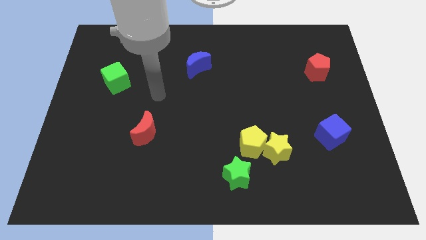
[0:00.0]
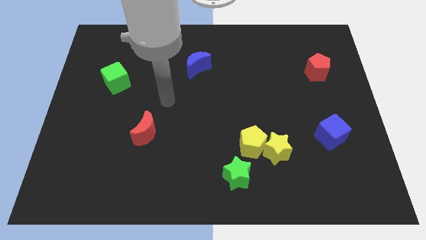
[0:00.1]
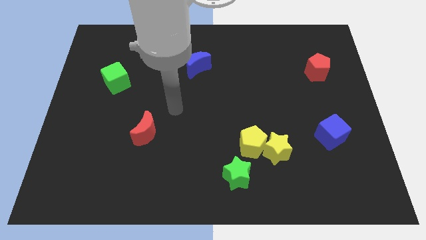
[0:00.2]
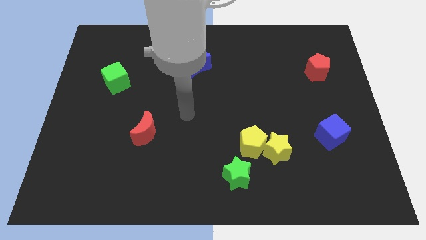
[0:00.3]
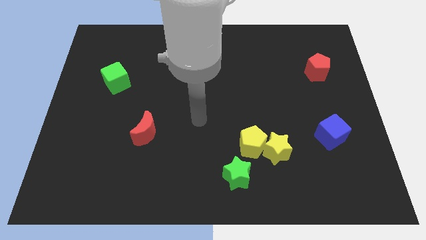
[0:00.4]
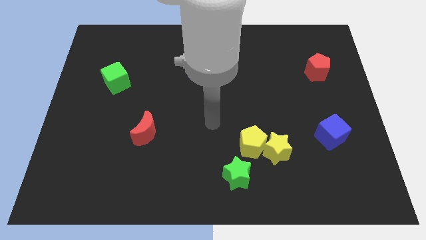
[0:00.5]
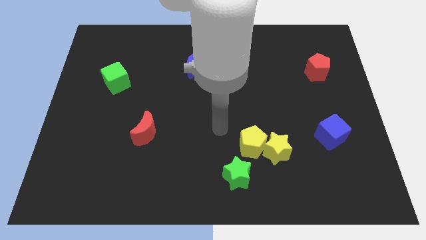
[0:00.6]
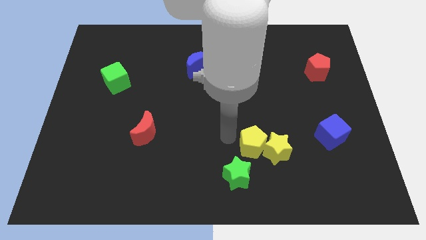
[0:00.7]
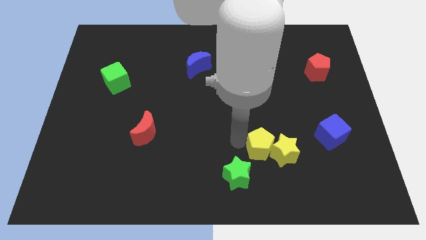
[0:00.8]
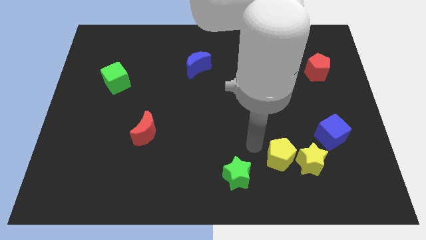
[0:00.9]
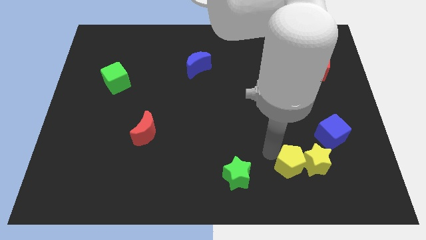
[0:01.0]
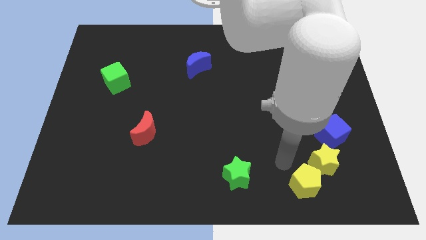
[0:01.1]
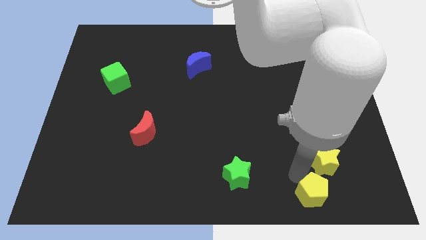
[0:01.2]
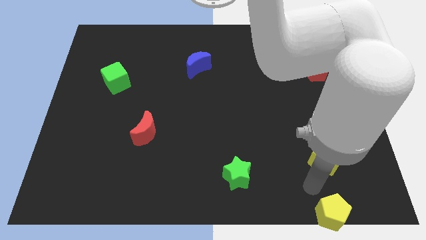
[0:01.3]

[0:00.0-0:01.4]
separate the yellow star from the yellow pentagon

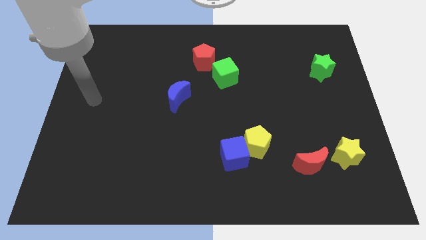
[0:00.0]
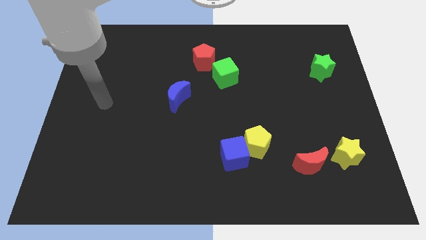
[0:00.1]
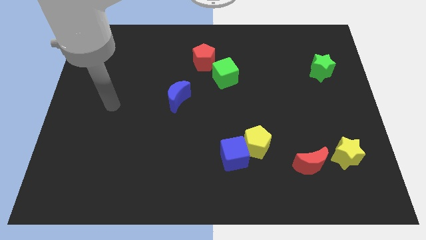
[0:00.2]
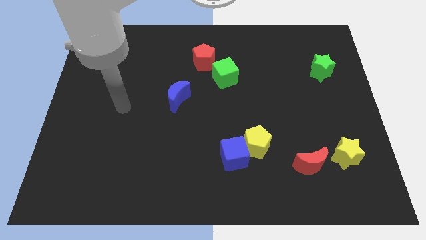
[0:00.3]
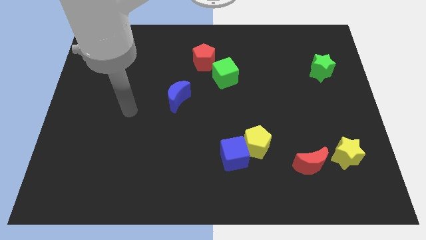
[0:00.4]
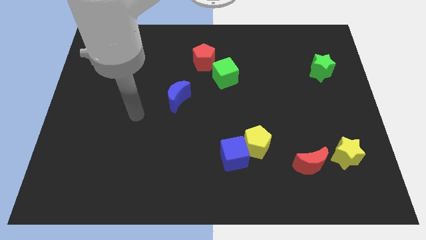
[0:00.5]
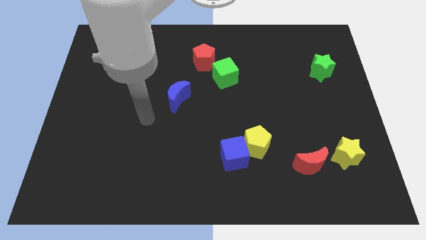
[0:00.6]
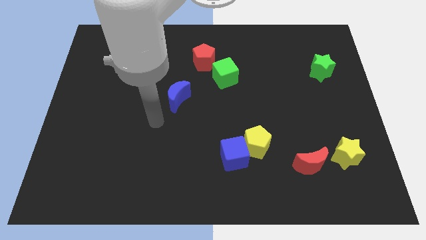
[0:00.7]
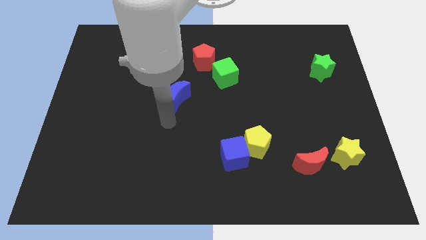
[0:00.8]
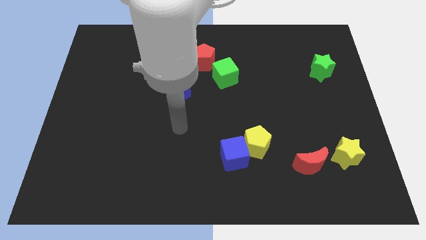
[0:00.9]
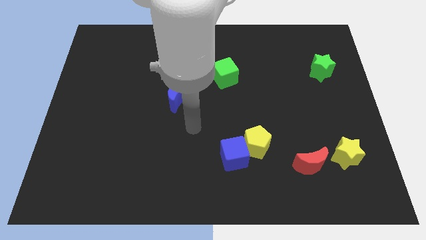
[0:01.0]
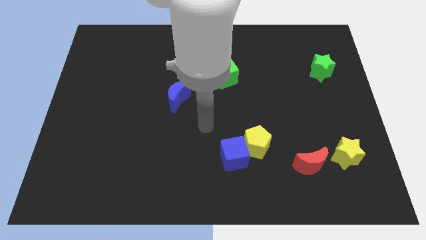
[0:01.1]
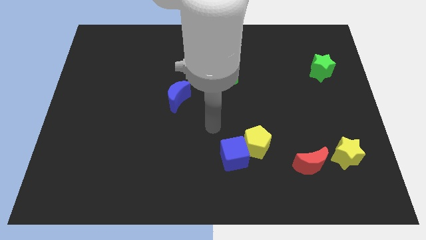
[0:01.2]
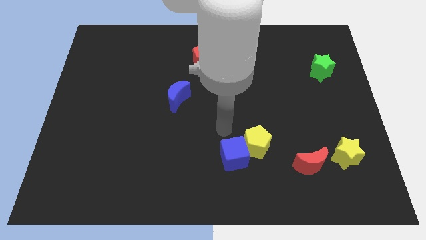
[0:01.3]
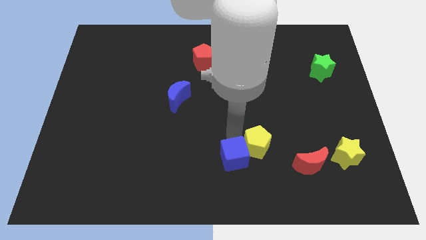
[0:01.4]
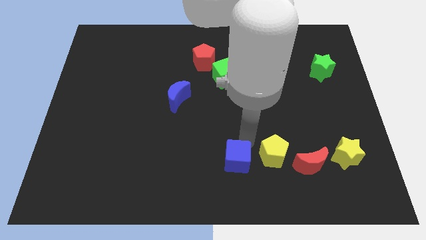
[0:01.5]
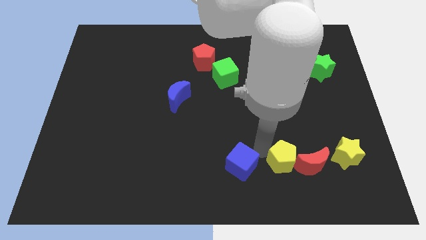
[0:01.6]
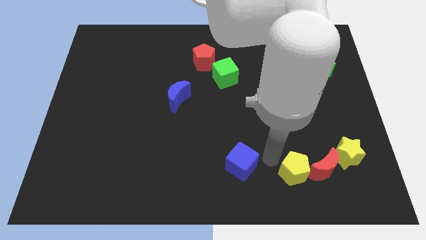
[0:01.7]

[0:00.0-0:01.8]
pull the blue cube apart from the yellow pentagon

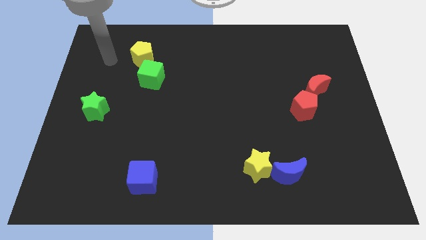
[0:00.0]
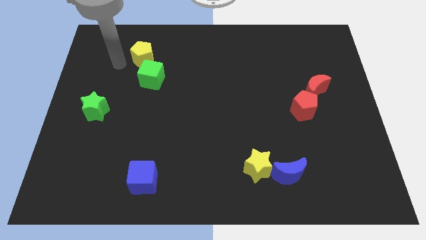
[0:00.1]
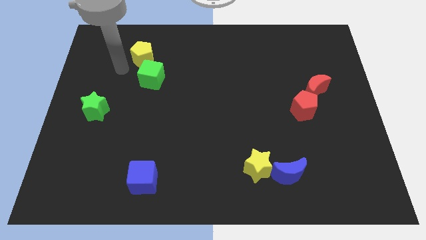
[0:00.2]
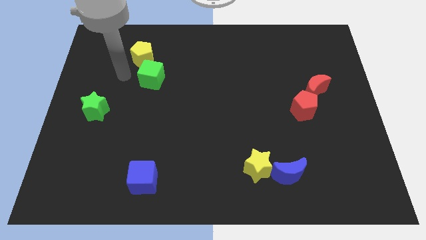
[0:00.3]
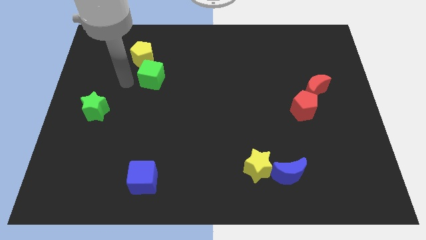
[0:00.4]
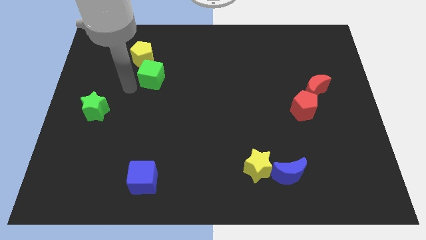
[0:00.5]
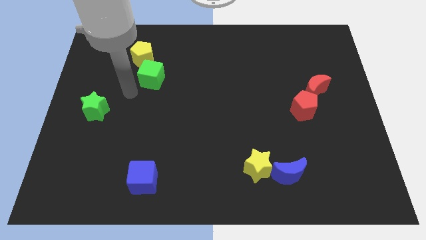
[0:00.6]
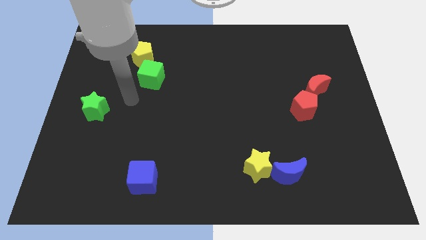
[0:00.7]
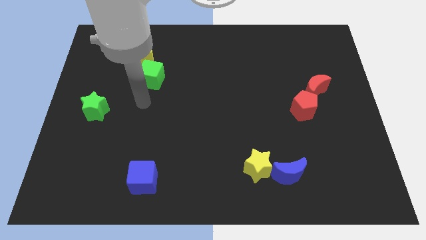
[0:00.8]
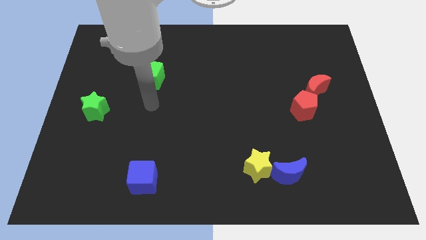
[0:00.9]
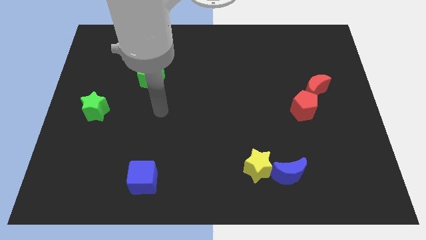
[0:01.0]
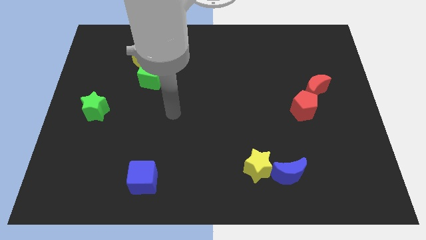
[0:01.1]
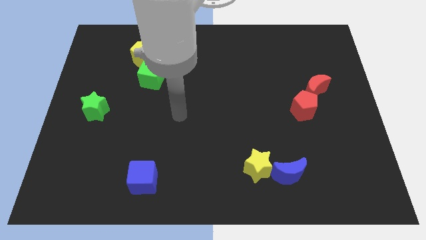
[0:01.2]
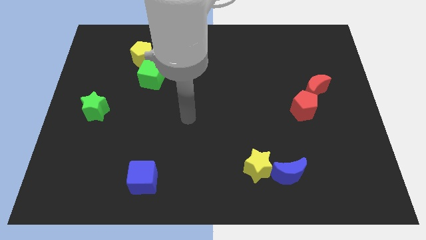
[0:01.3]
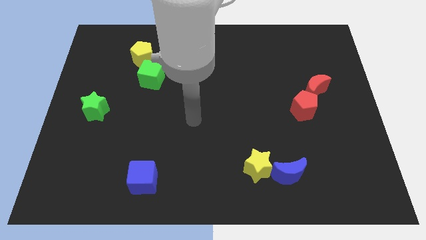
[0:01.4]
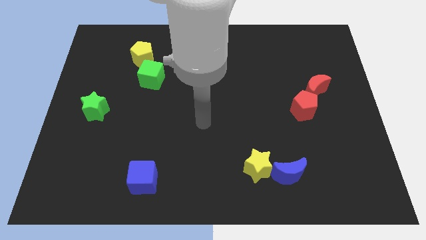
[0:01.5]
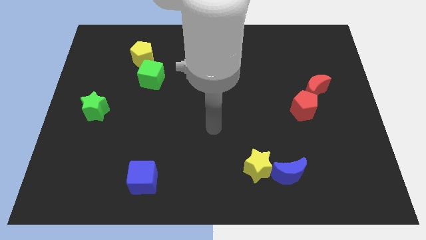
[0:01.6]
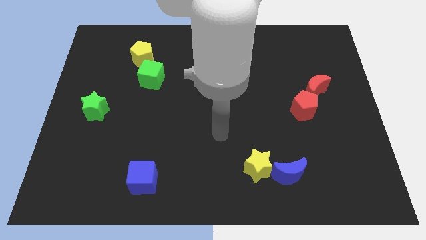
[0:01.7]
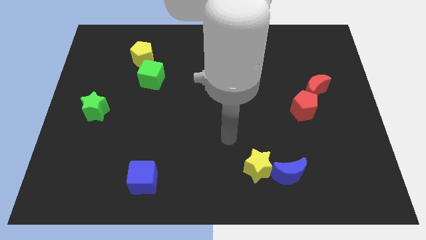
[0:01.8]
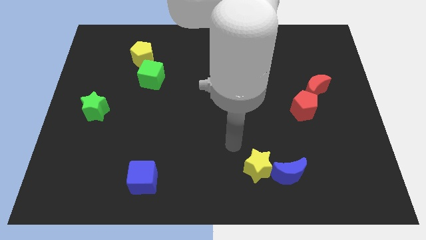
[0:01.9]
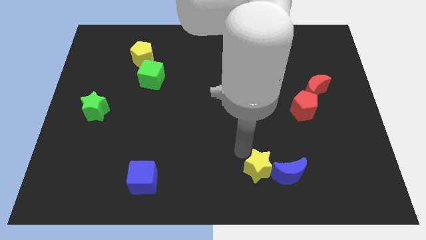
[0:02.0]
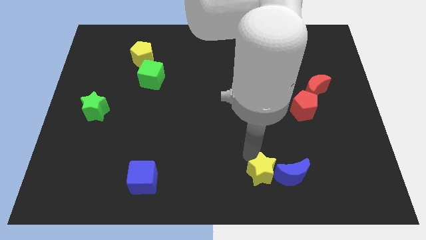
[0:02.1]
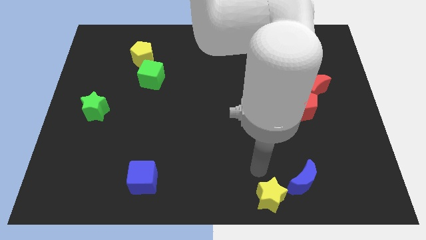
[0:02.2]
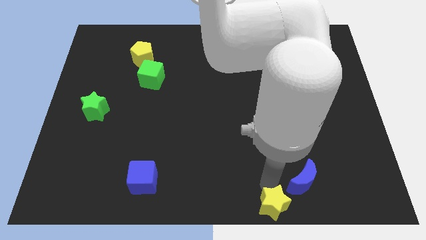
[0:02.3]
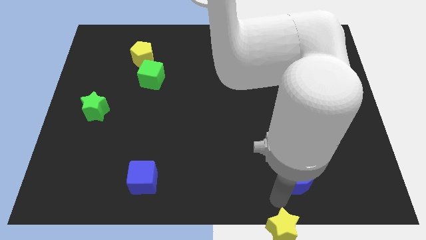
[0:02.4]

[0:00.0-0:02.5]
move the blue moon away from the yellow star

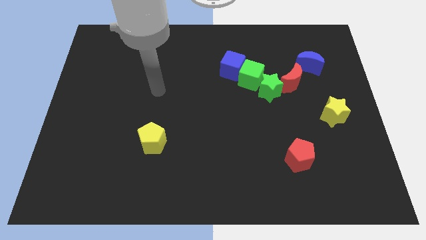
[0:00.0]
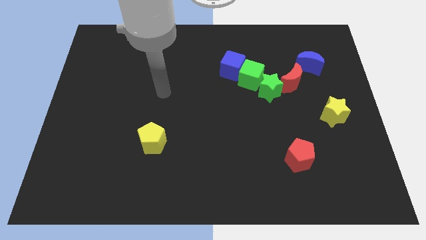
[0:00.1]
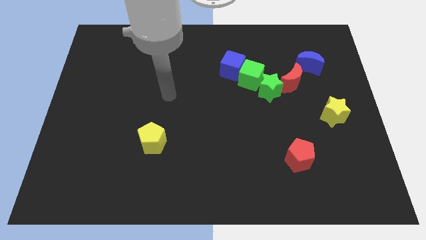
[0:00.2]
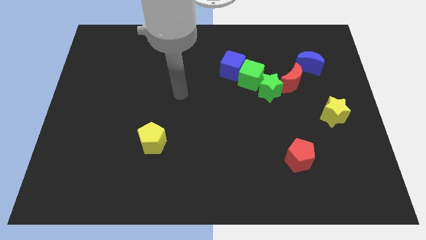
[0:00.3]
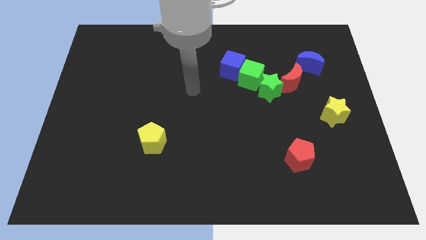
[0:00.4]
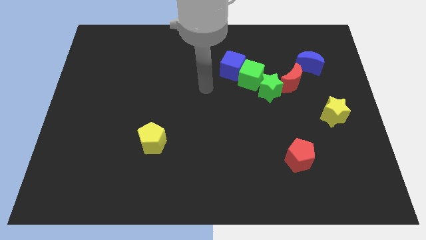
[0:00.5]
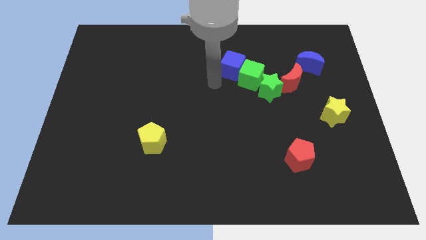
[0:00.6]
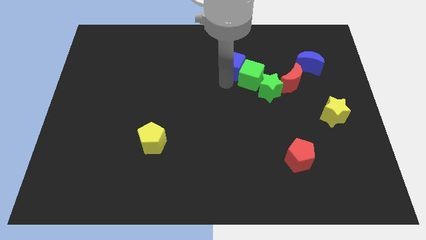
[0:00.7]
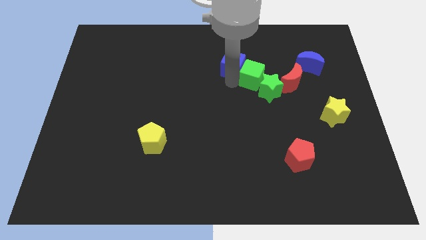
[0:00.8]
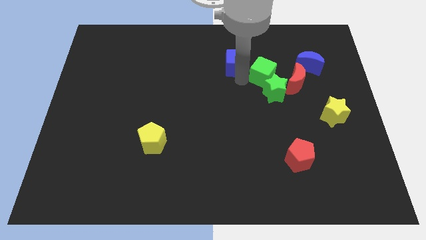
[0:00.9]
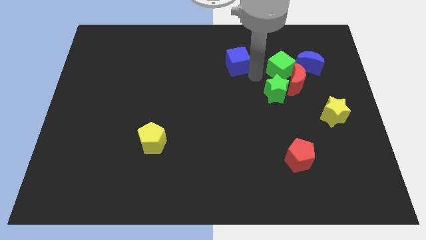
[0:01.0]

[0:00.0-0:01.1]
separate the blue cube from the green cube

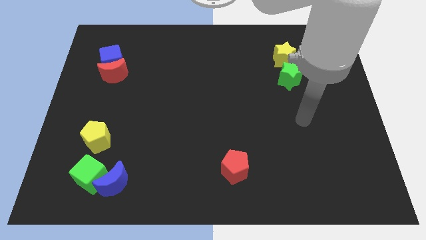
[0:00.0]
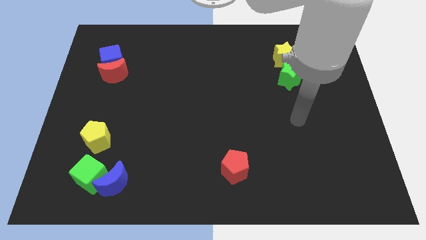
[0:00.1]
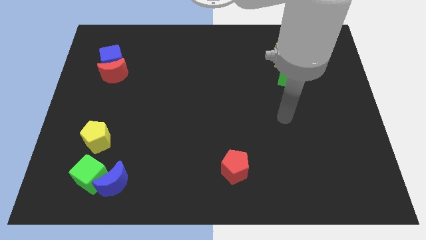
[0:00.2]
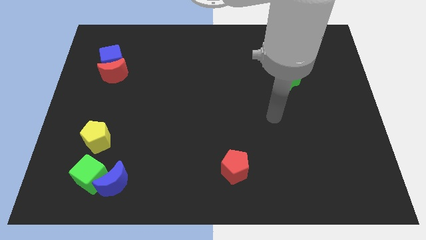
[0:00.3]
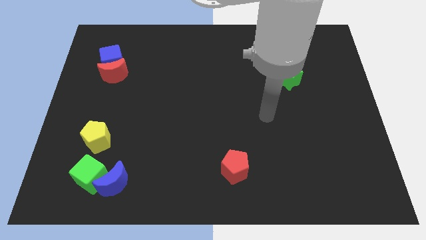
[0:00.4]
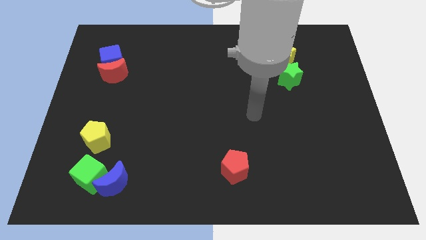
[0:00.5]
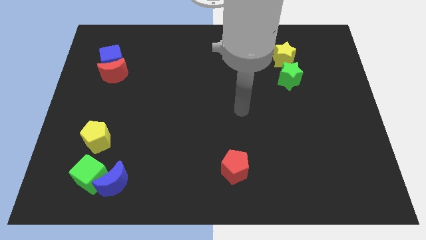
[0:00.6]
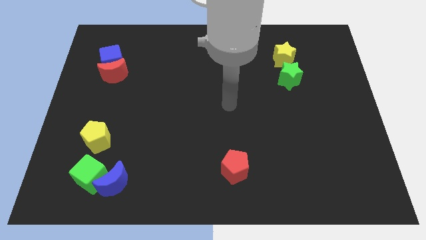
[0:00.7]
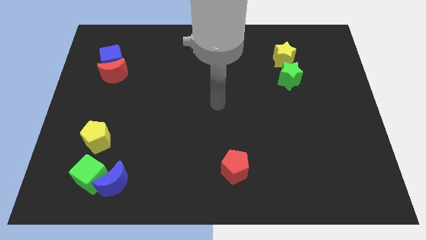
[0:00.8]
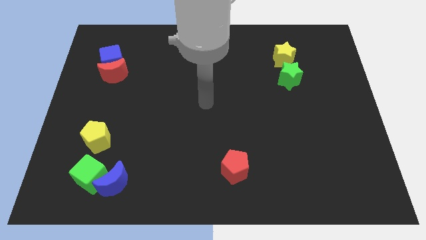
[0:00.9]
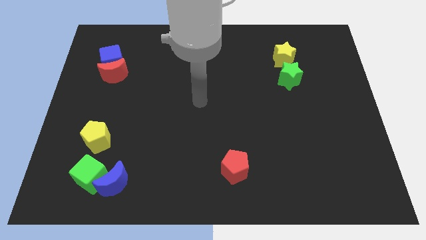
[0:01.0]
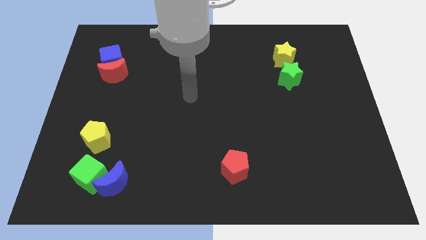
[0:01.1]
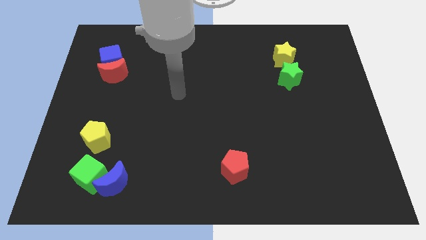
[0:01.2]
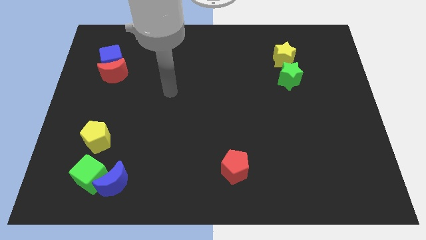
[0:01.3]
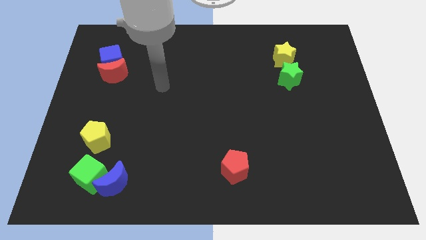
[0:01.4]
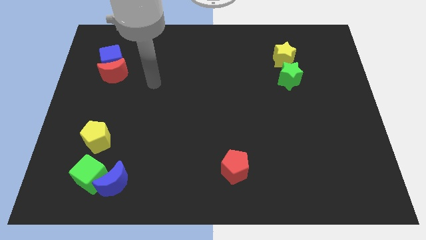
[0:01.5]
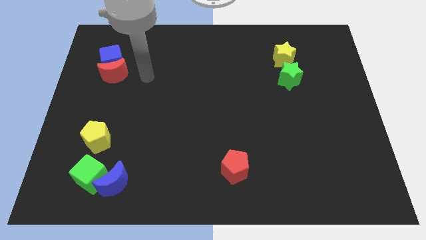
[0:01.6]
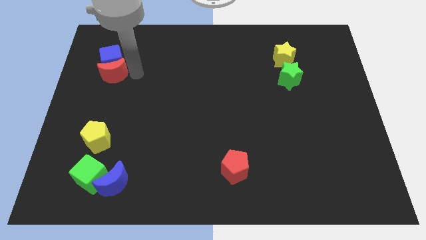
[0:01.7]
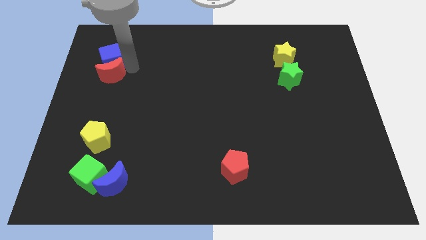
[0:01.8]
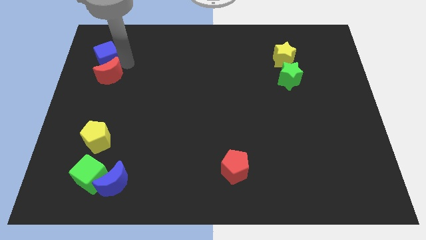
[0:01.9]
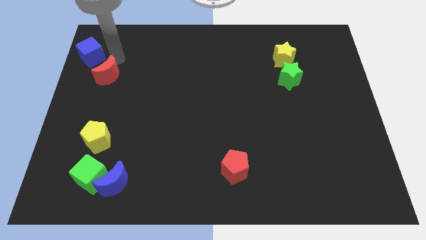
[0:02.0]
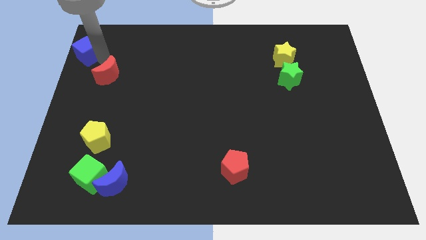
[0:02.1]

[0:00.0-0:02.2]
move the red moon away from the blue cube

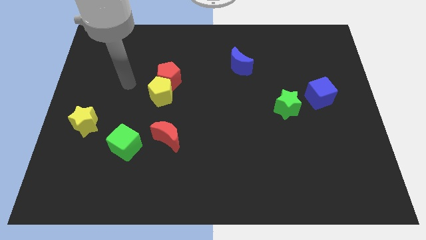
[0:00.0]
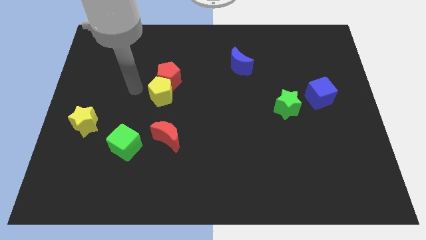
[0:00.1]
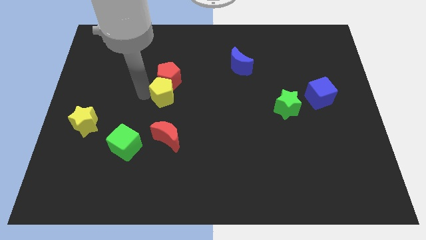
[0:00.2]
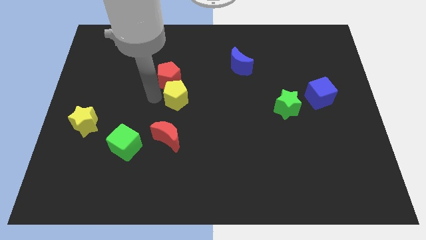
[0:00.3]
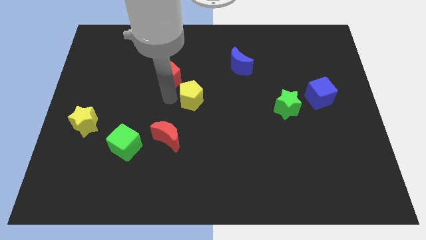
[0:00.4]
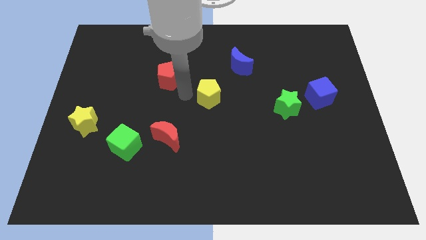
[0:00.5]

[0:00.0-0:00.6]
pull the red pentagon apart from the yellow pentagon
